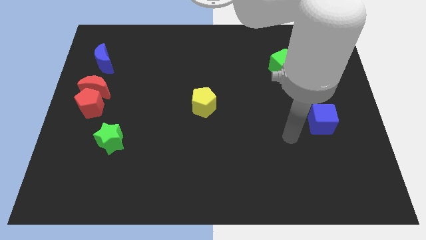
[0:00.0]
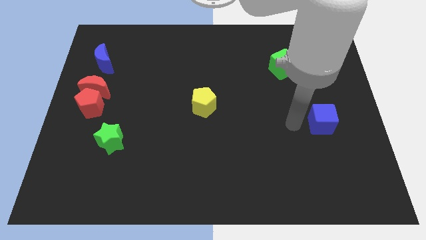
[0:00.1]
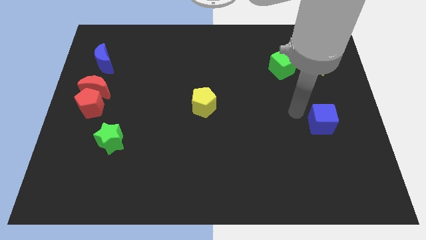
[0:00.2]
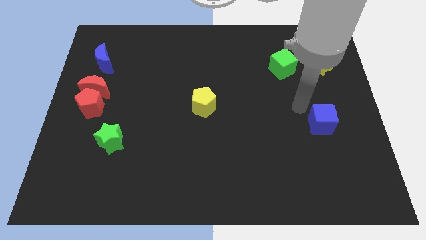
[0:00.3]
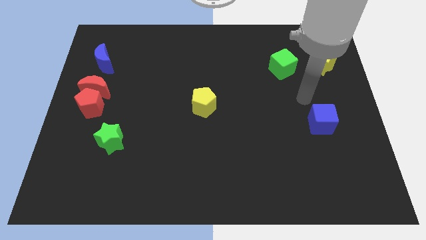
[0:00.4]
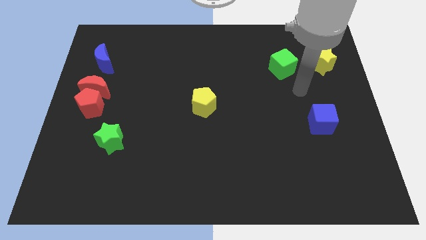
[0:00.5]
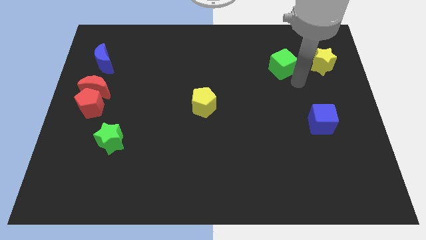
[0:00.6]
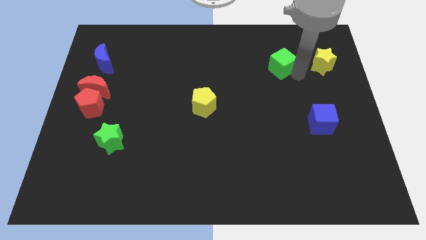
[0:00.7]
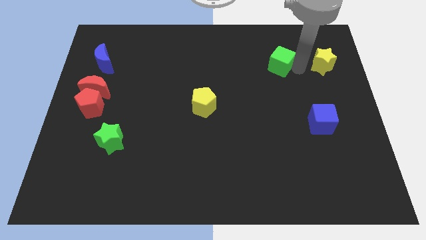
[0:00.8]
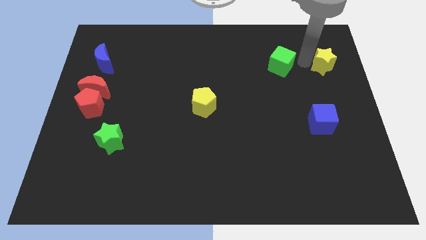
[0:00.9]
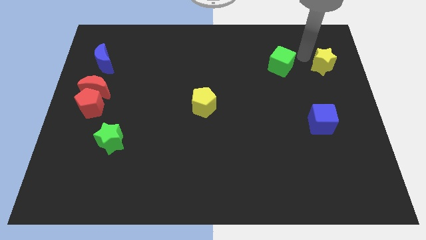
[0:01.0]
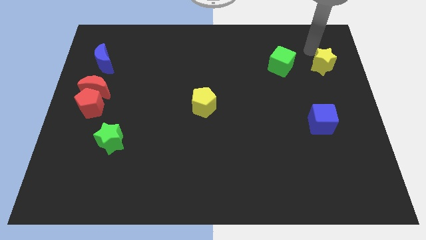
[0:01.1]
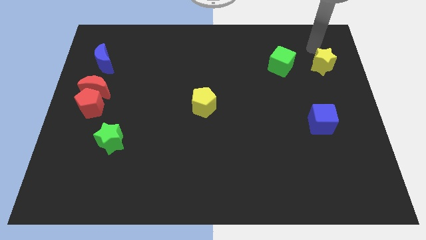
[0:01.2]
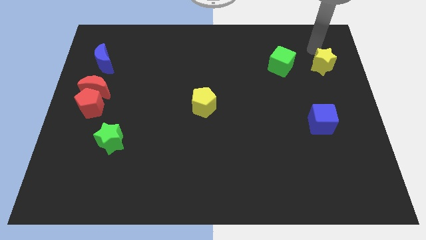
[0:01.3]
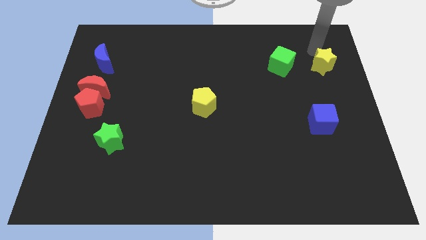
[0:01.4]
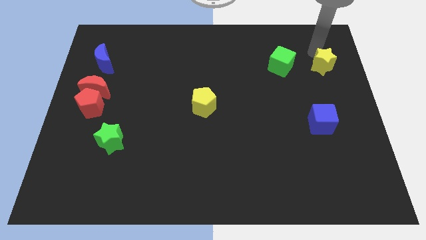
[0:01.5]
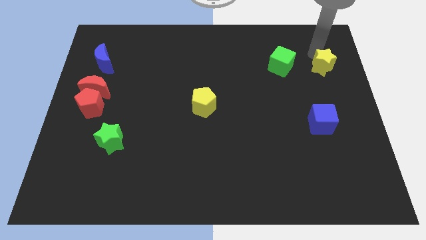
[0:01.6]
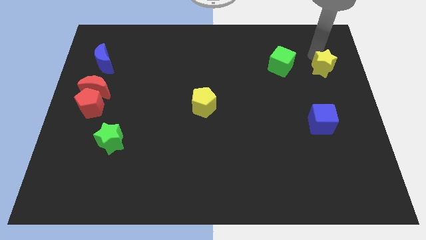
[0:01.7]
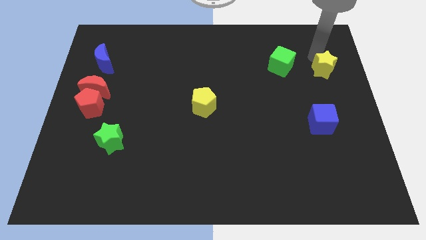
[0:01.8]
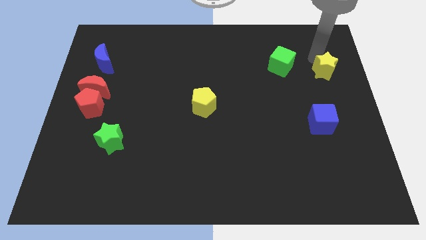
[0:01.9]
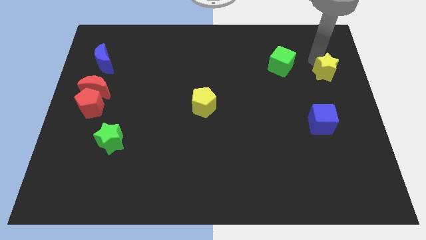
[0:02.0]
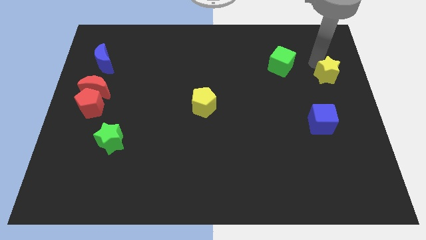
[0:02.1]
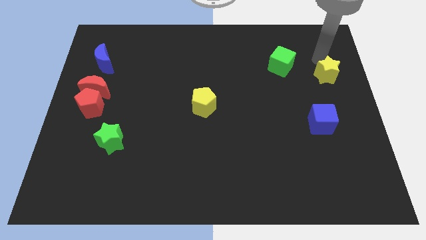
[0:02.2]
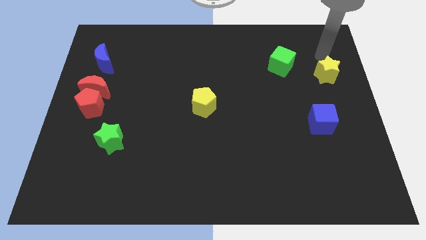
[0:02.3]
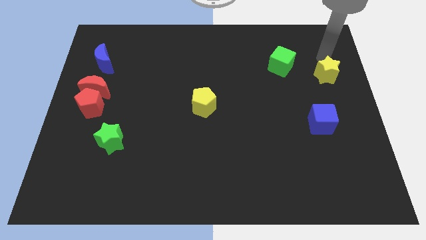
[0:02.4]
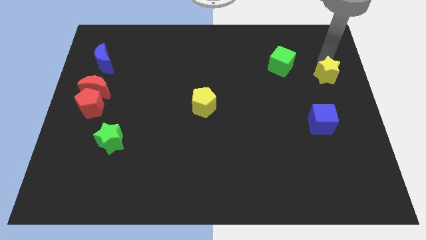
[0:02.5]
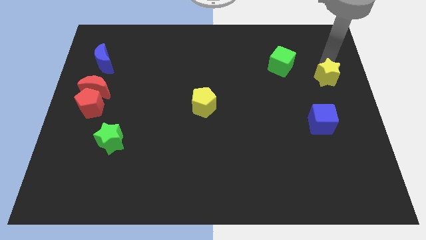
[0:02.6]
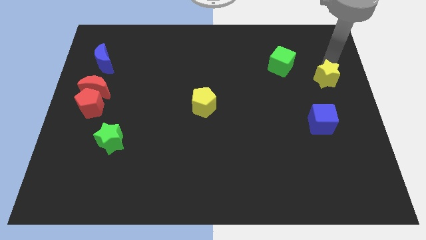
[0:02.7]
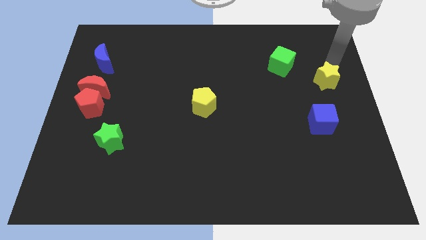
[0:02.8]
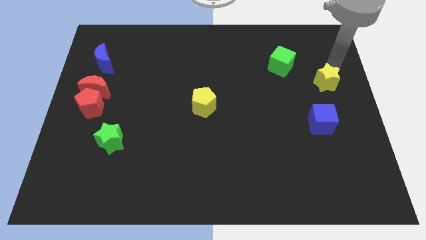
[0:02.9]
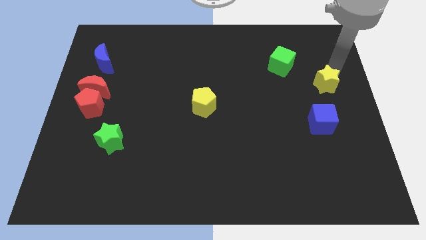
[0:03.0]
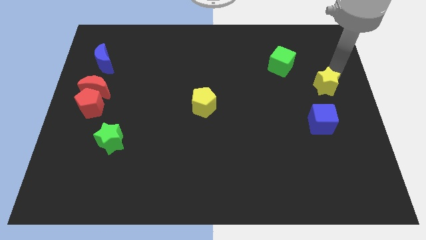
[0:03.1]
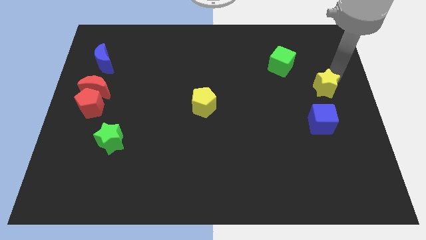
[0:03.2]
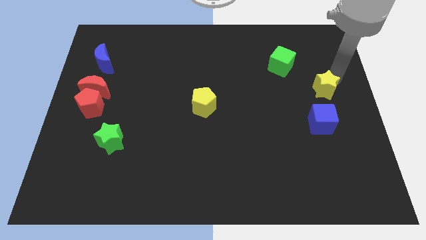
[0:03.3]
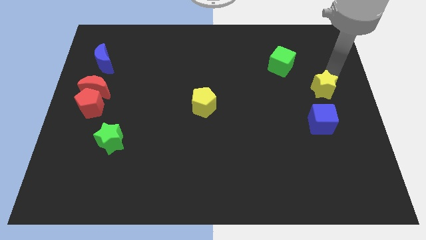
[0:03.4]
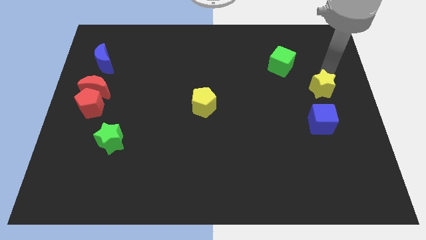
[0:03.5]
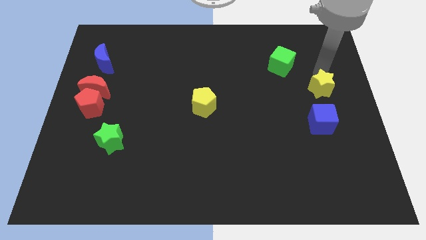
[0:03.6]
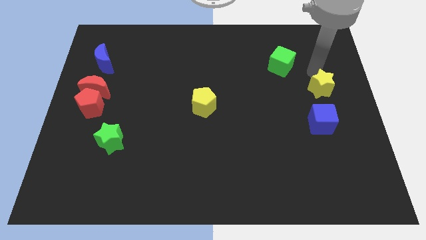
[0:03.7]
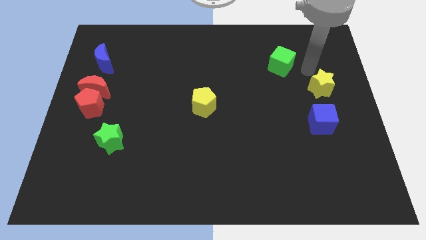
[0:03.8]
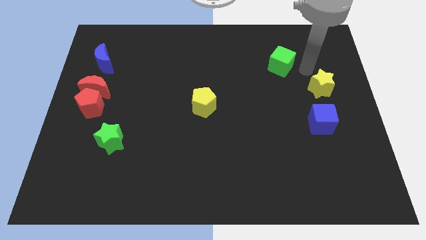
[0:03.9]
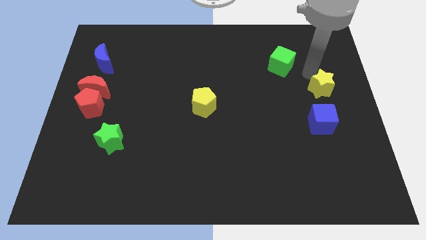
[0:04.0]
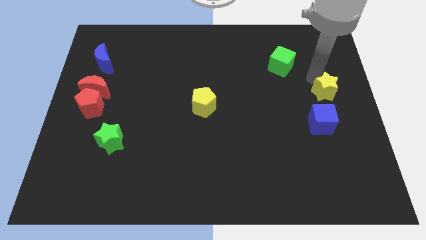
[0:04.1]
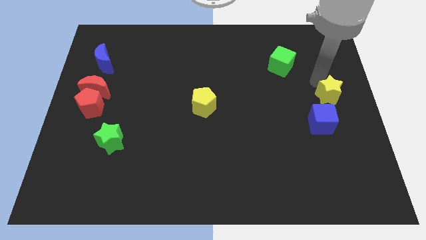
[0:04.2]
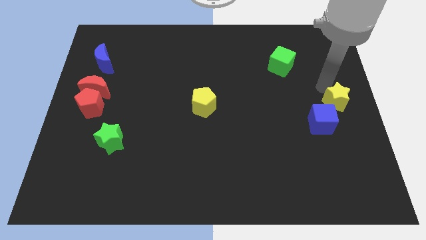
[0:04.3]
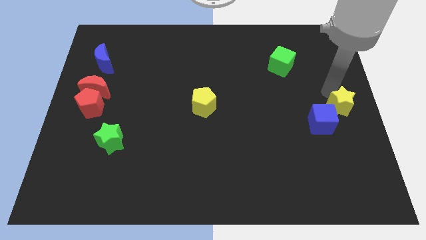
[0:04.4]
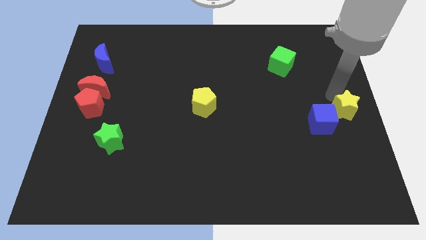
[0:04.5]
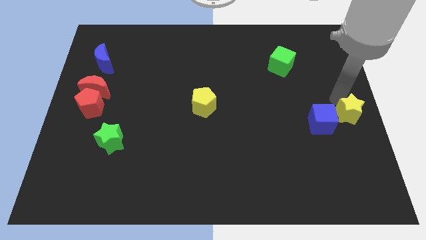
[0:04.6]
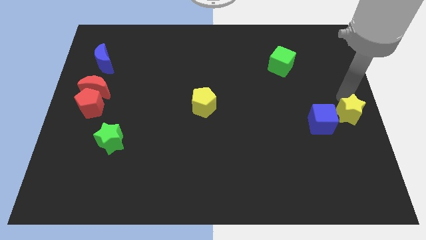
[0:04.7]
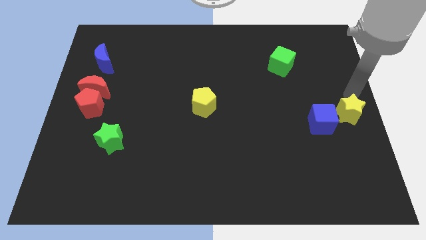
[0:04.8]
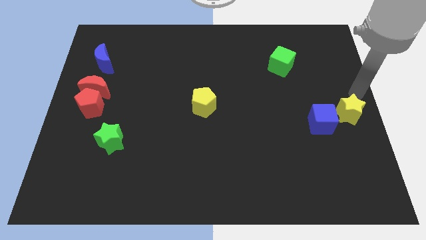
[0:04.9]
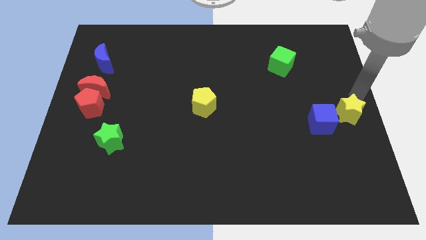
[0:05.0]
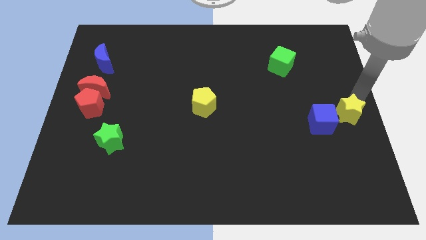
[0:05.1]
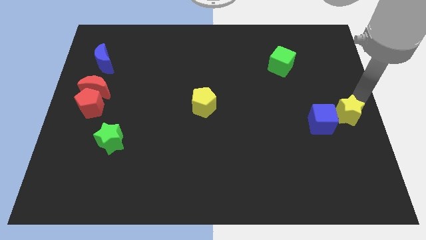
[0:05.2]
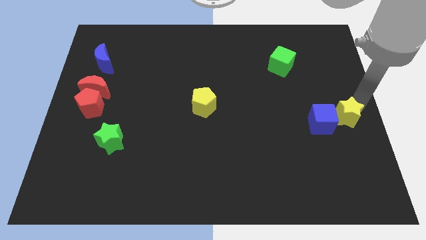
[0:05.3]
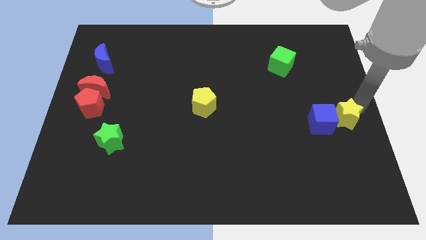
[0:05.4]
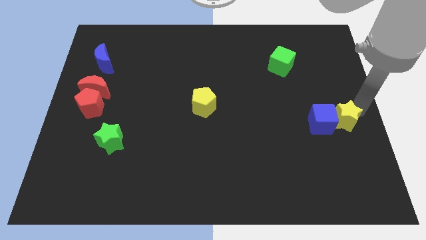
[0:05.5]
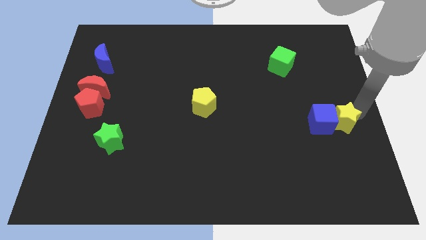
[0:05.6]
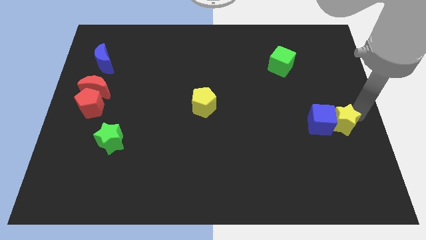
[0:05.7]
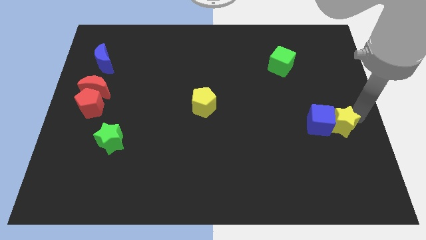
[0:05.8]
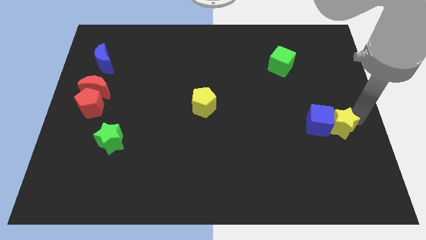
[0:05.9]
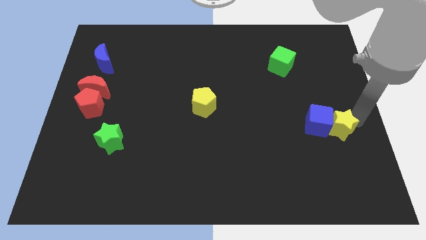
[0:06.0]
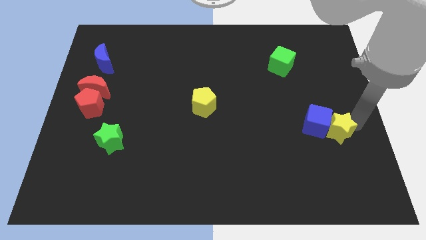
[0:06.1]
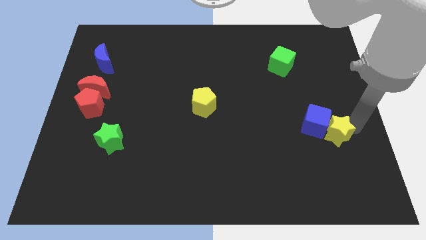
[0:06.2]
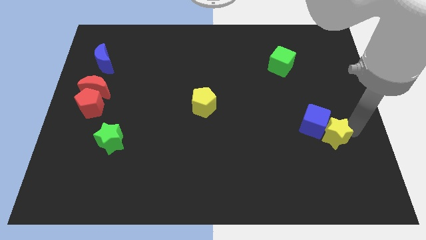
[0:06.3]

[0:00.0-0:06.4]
push the yellow star below the blue cube

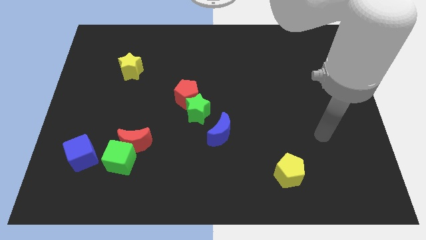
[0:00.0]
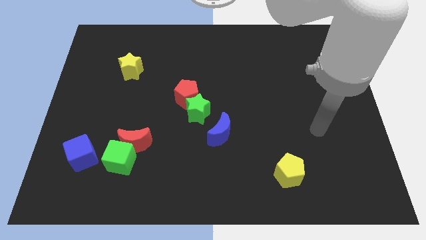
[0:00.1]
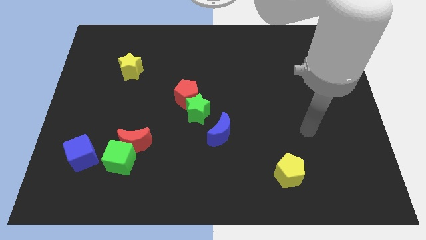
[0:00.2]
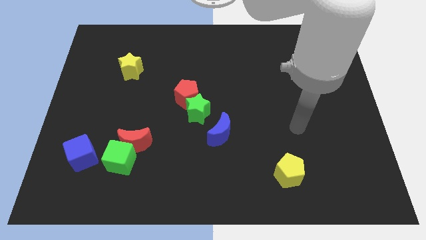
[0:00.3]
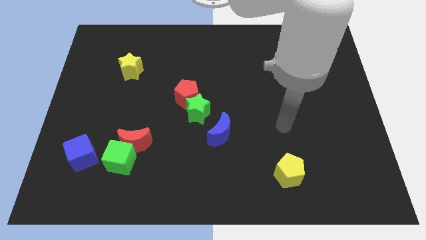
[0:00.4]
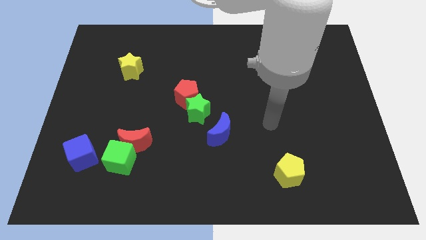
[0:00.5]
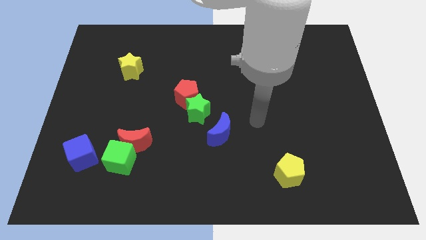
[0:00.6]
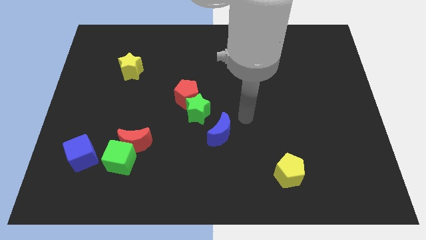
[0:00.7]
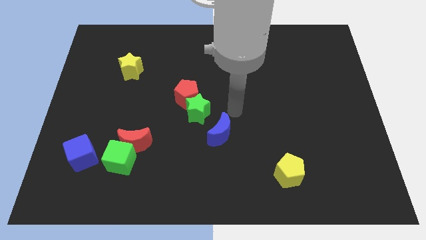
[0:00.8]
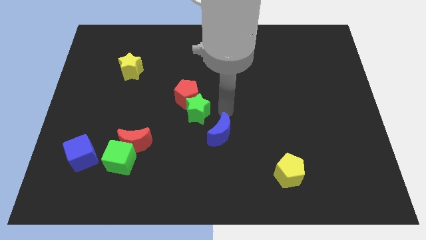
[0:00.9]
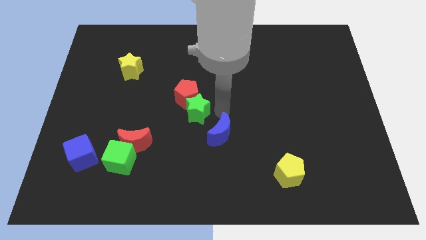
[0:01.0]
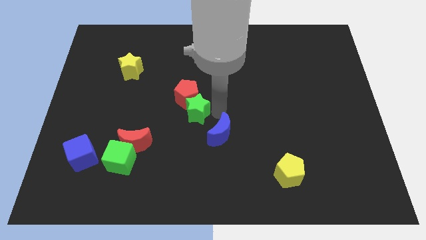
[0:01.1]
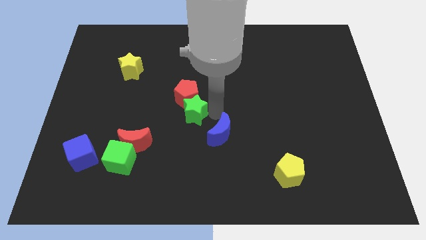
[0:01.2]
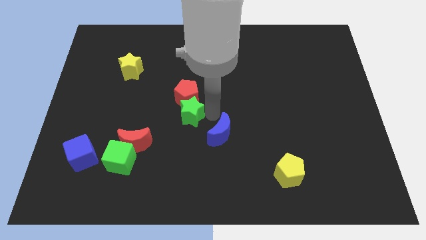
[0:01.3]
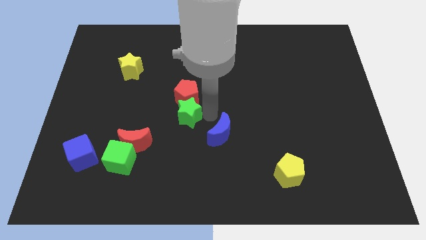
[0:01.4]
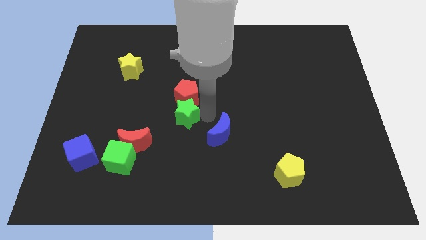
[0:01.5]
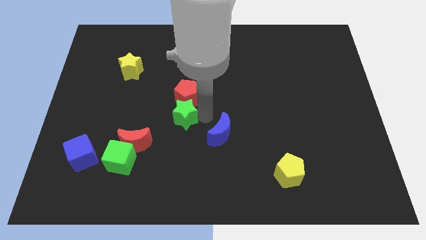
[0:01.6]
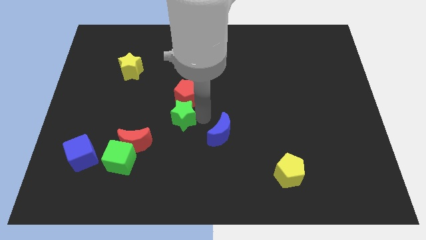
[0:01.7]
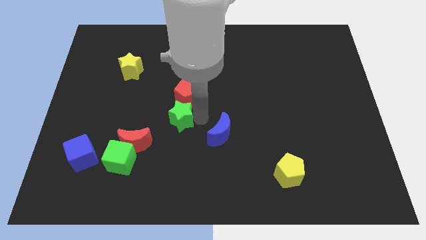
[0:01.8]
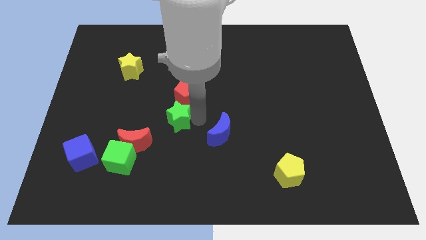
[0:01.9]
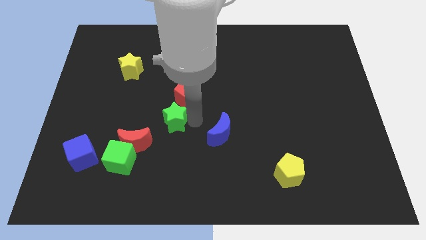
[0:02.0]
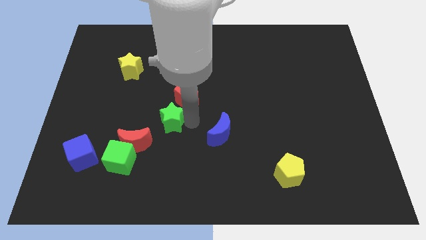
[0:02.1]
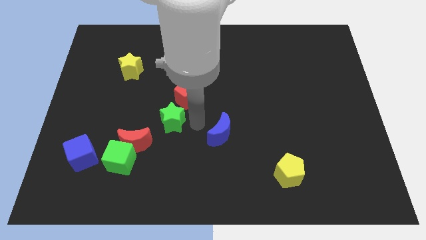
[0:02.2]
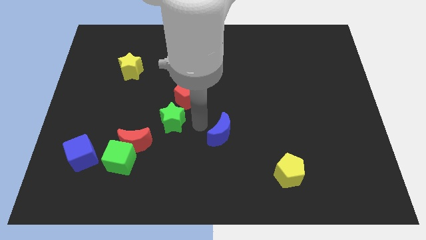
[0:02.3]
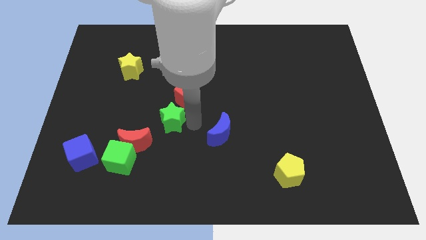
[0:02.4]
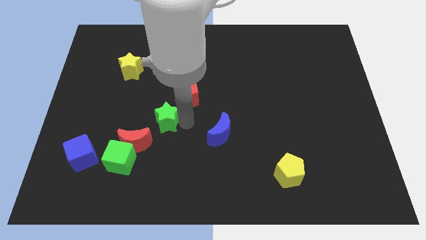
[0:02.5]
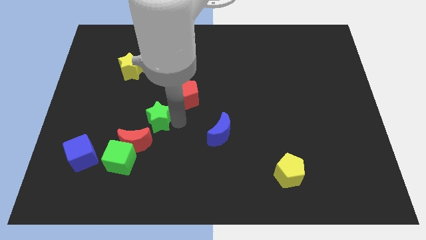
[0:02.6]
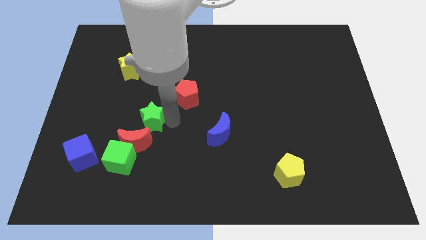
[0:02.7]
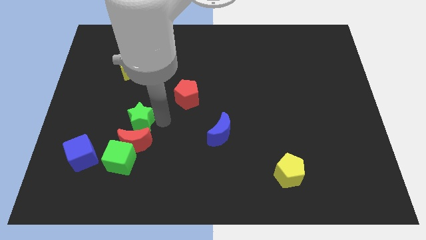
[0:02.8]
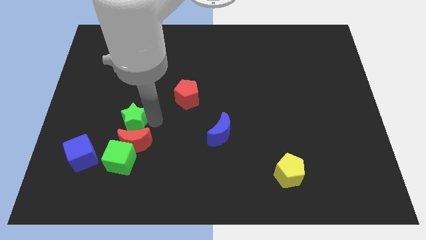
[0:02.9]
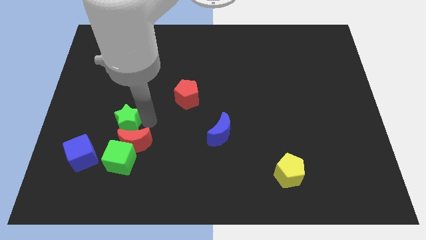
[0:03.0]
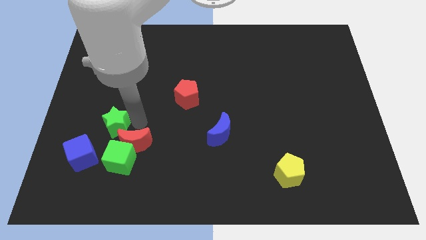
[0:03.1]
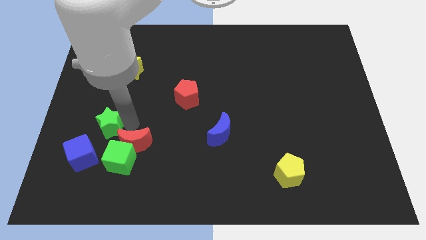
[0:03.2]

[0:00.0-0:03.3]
move the green star above the blue cube
